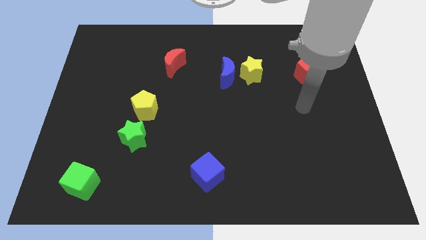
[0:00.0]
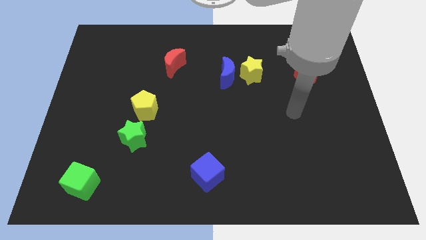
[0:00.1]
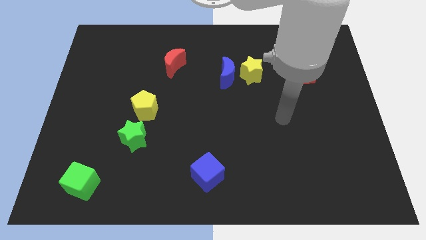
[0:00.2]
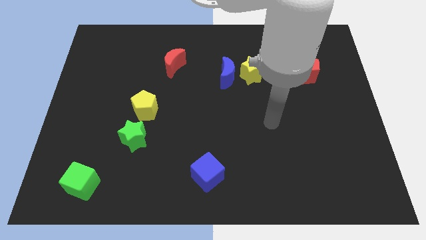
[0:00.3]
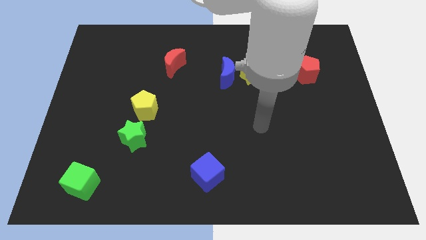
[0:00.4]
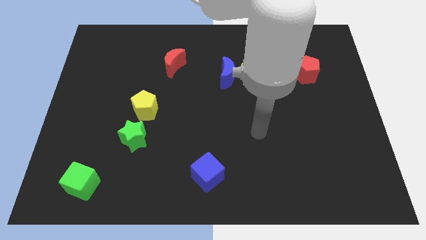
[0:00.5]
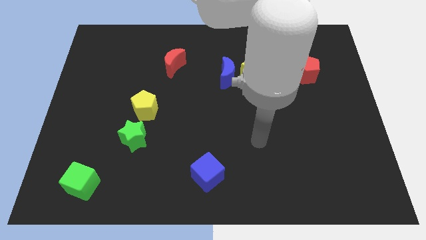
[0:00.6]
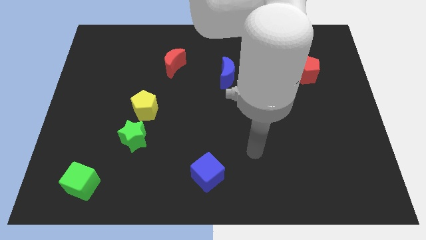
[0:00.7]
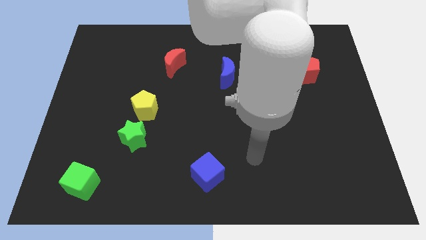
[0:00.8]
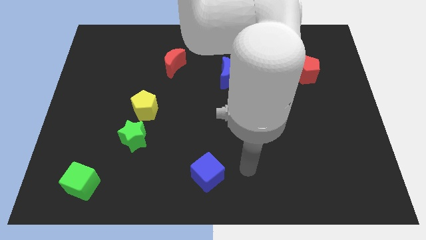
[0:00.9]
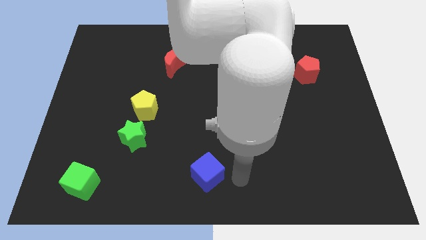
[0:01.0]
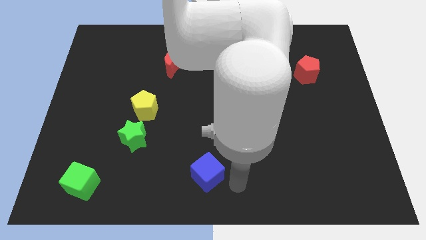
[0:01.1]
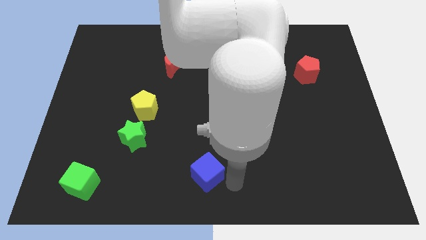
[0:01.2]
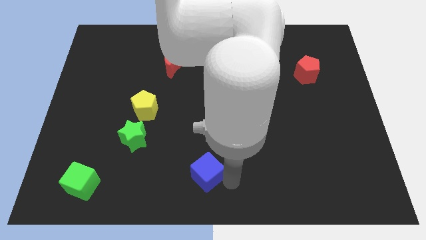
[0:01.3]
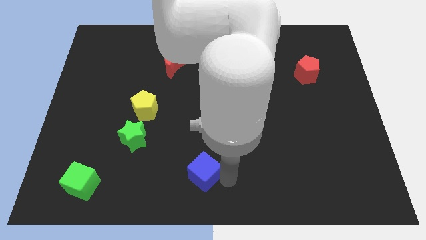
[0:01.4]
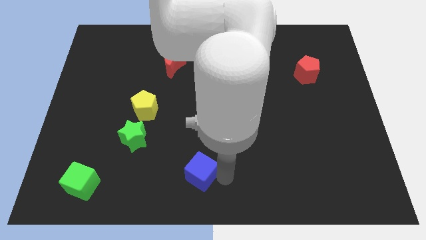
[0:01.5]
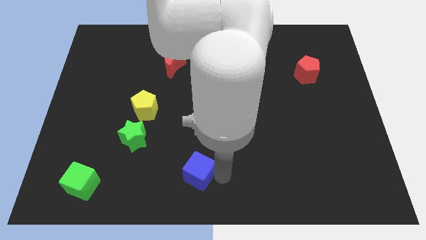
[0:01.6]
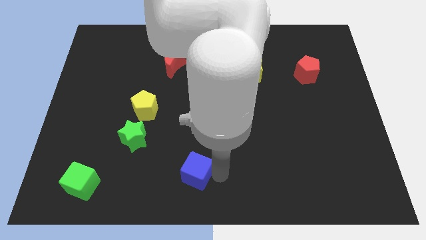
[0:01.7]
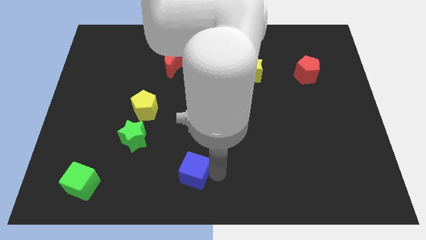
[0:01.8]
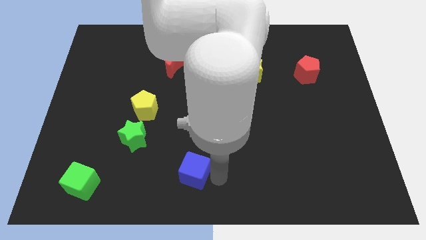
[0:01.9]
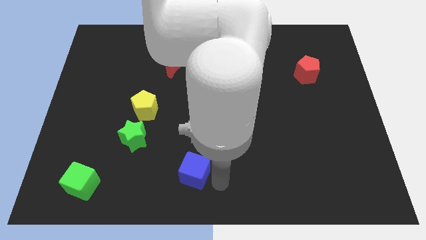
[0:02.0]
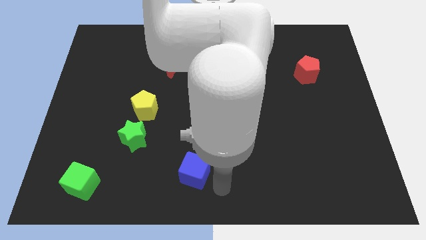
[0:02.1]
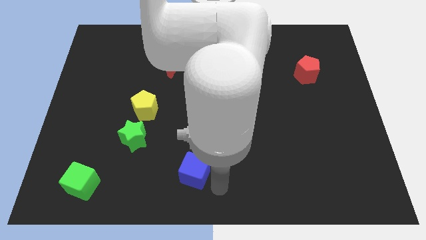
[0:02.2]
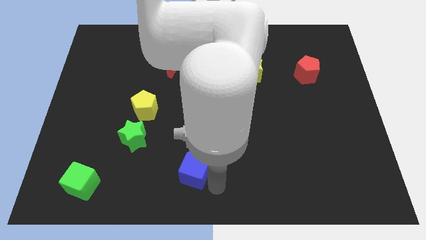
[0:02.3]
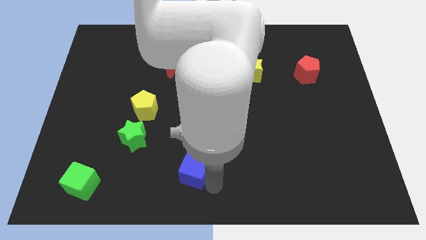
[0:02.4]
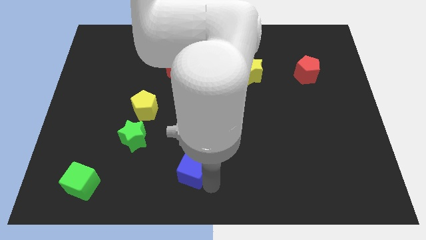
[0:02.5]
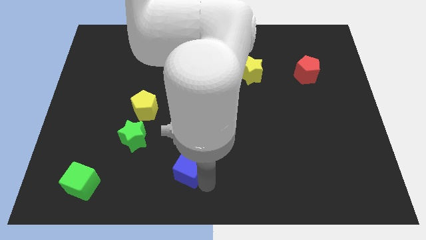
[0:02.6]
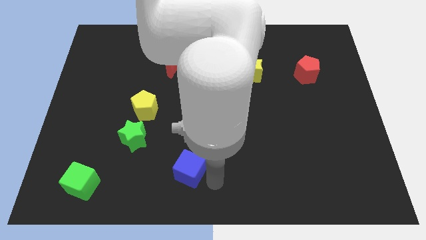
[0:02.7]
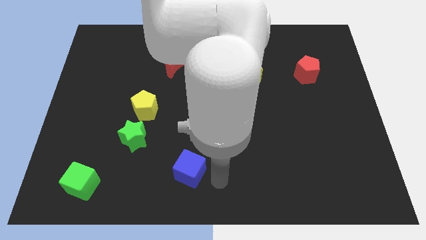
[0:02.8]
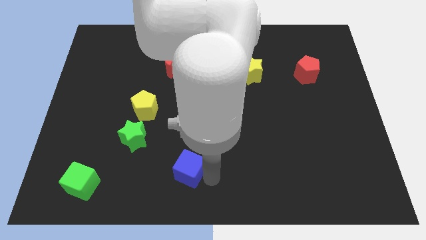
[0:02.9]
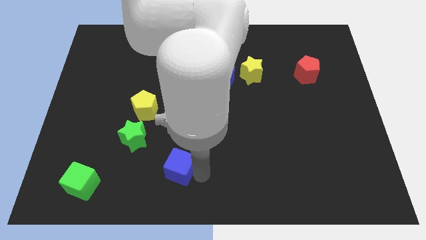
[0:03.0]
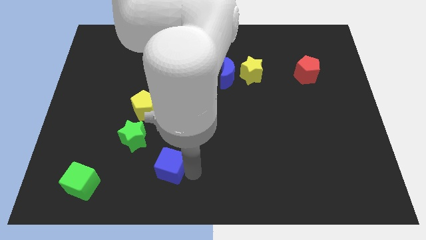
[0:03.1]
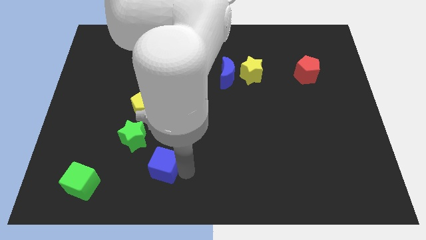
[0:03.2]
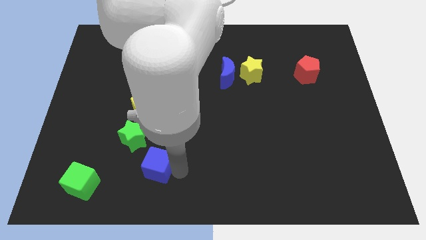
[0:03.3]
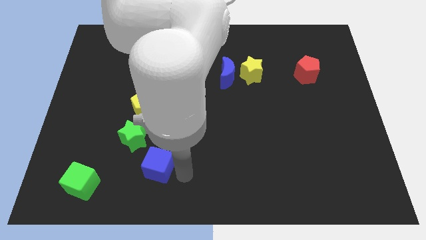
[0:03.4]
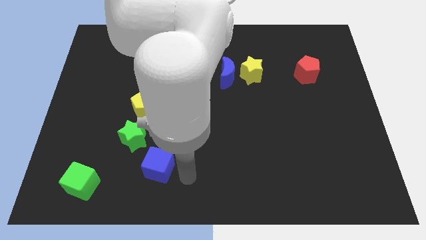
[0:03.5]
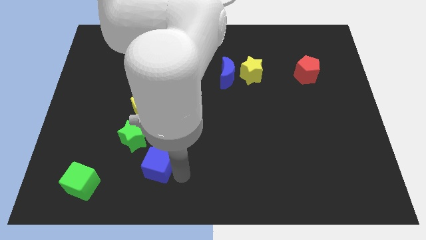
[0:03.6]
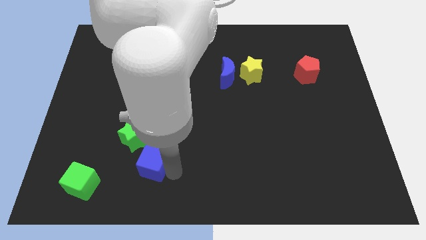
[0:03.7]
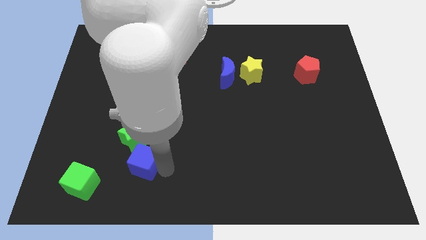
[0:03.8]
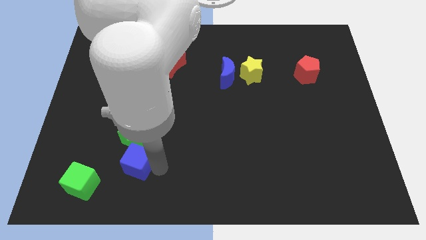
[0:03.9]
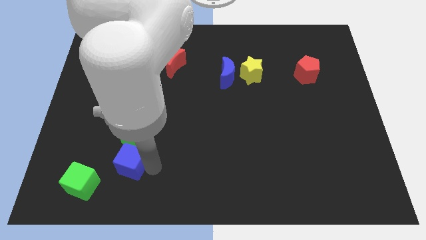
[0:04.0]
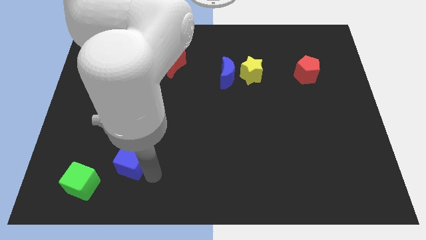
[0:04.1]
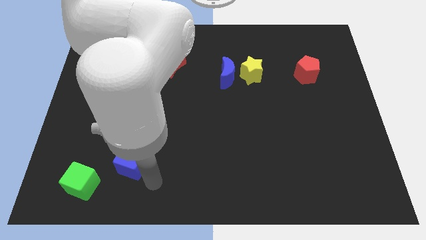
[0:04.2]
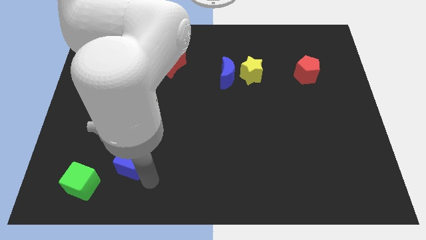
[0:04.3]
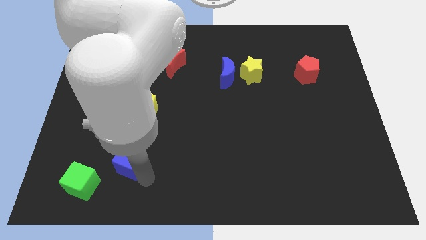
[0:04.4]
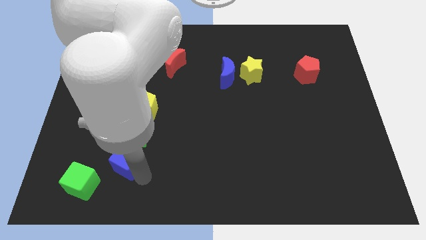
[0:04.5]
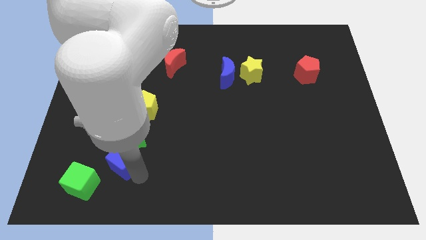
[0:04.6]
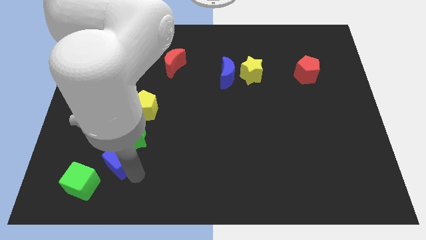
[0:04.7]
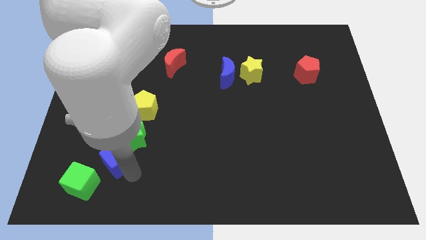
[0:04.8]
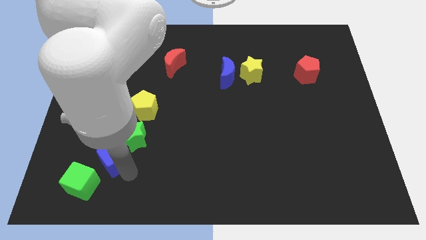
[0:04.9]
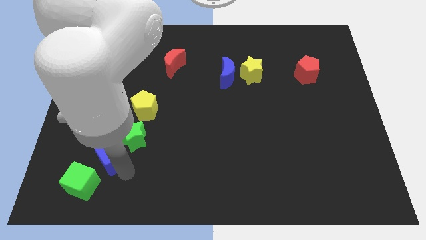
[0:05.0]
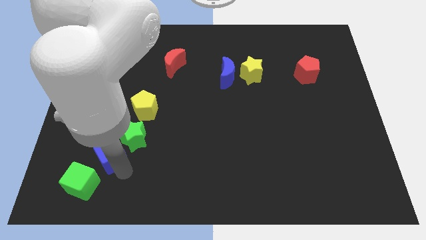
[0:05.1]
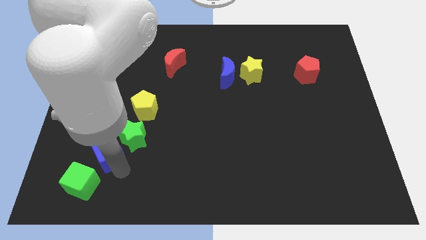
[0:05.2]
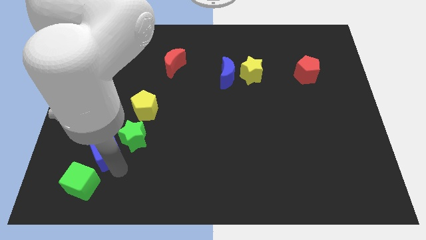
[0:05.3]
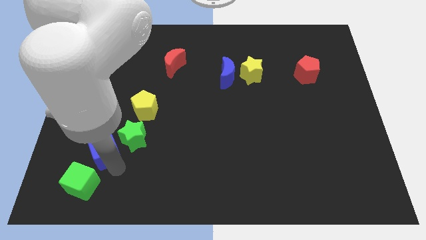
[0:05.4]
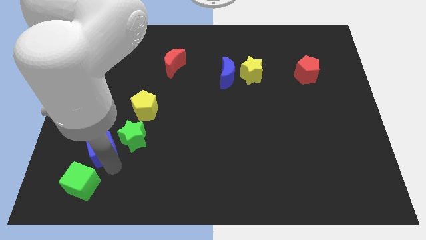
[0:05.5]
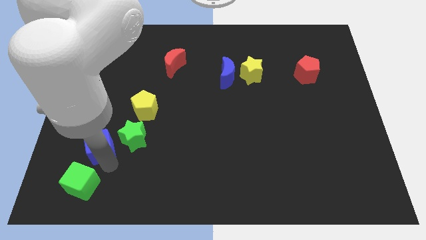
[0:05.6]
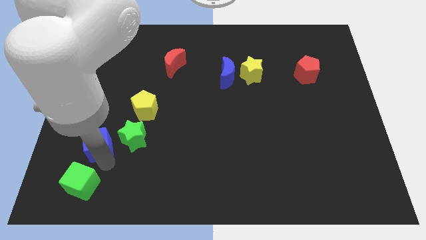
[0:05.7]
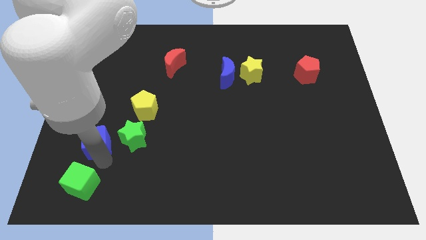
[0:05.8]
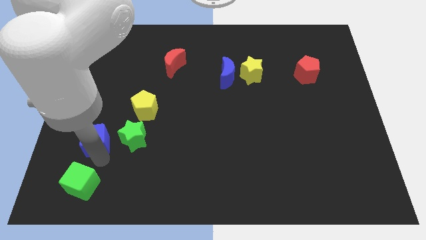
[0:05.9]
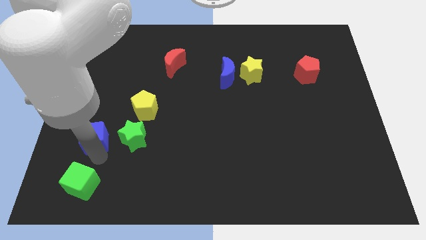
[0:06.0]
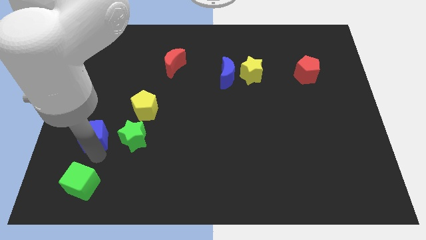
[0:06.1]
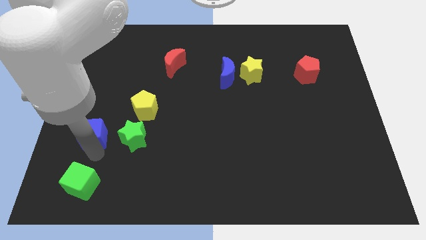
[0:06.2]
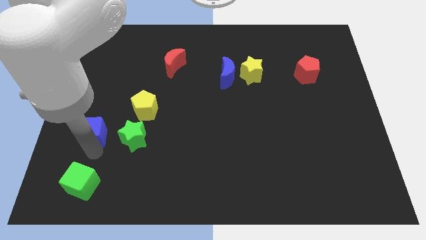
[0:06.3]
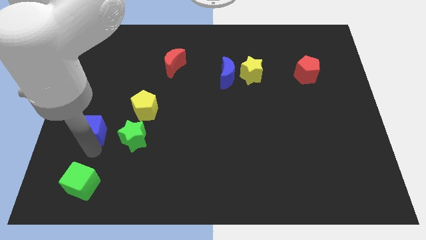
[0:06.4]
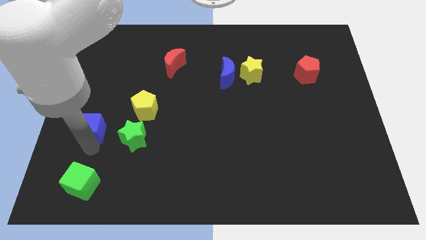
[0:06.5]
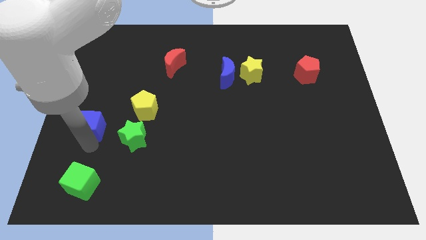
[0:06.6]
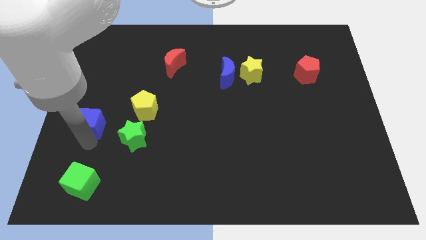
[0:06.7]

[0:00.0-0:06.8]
move the blue cube to the left side of the yellow pentagon
